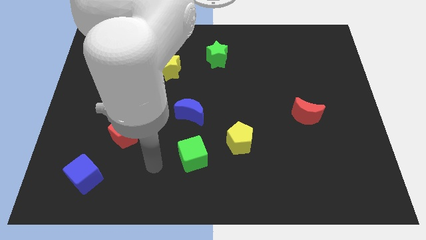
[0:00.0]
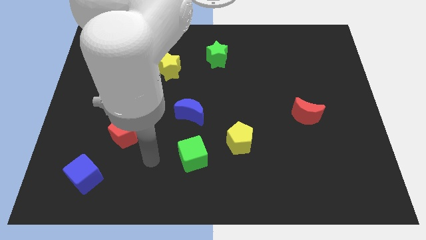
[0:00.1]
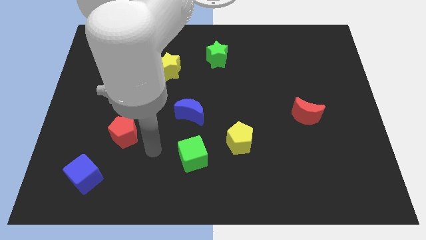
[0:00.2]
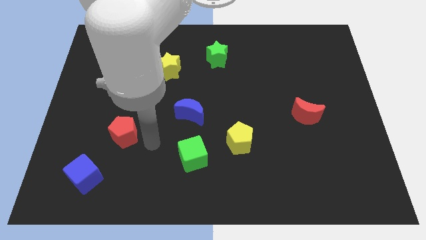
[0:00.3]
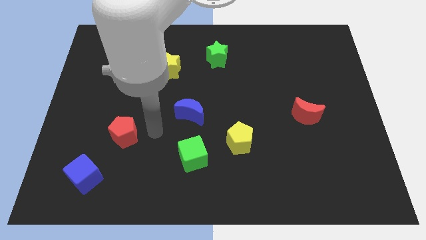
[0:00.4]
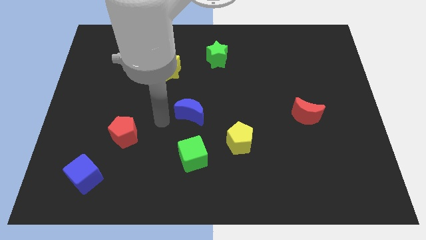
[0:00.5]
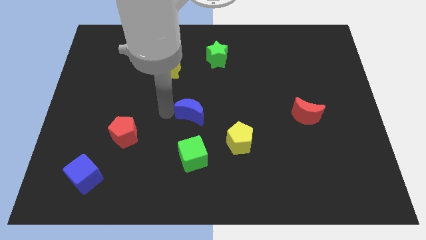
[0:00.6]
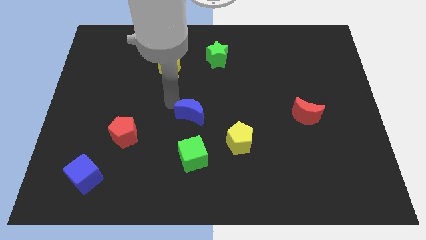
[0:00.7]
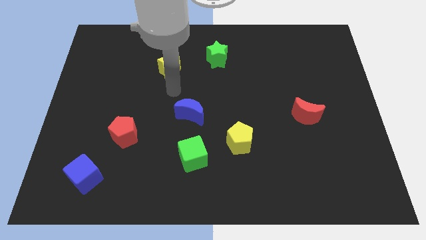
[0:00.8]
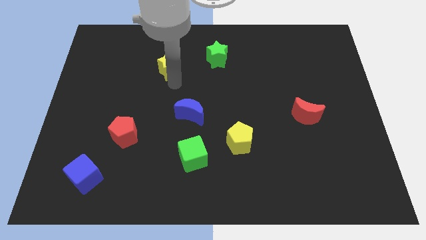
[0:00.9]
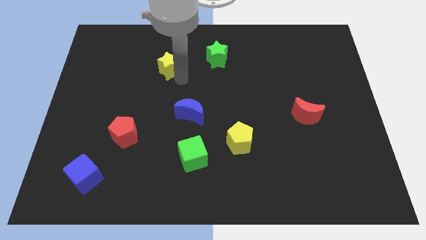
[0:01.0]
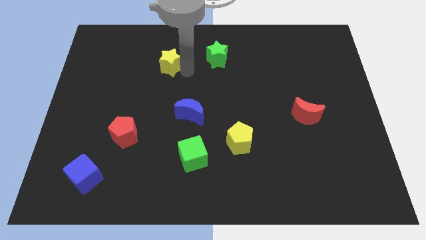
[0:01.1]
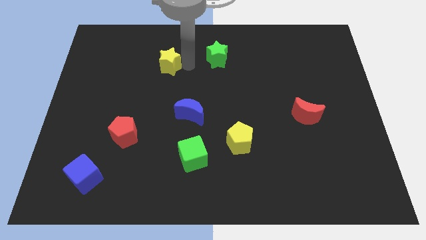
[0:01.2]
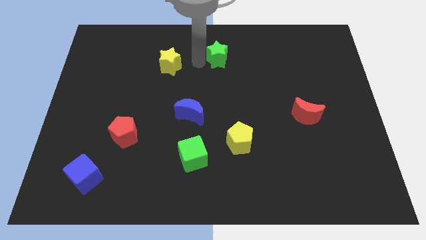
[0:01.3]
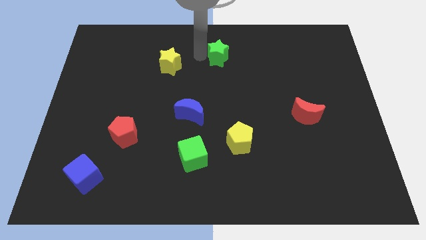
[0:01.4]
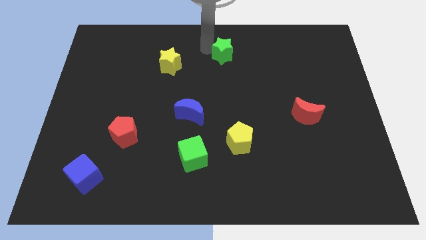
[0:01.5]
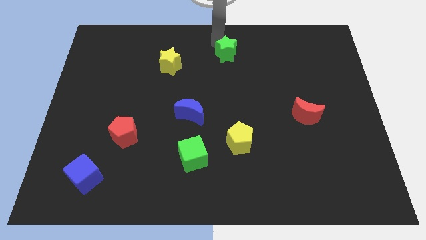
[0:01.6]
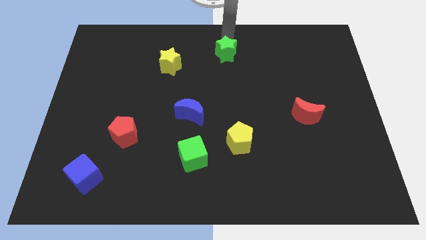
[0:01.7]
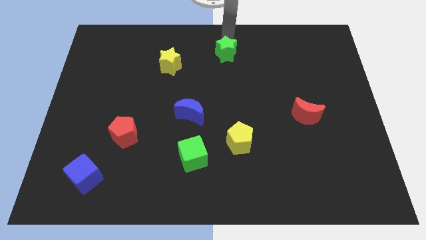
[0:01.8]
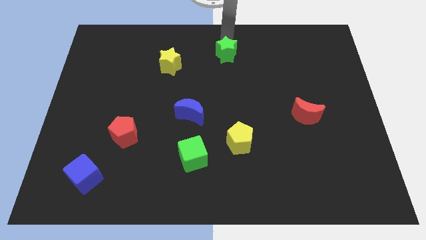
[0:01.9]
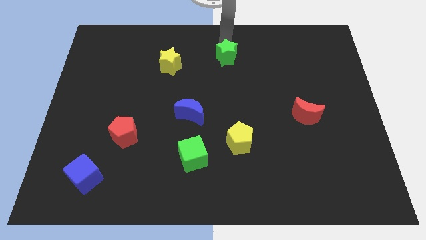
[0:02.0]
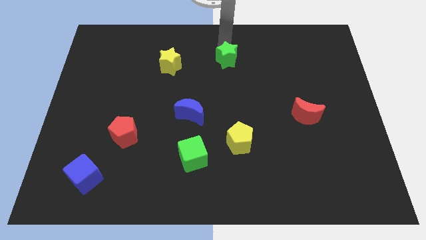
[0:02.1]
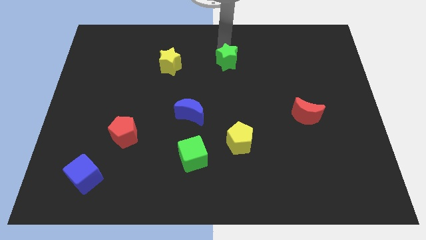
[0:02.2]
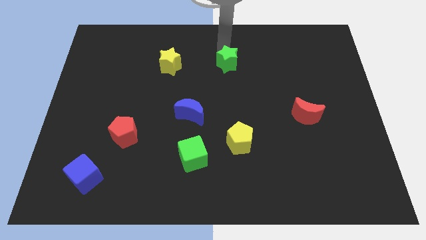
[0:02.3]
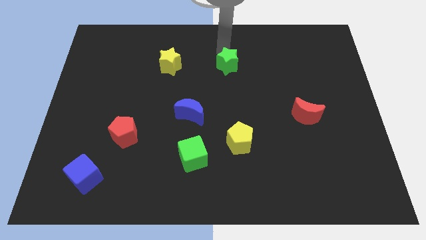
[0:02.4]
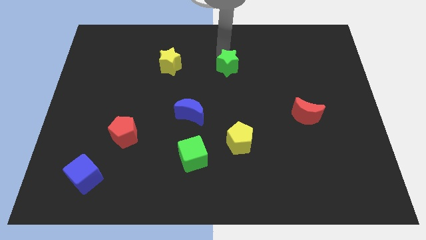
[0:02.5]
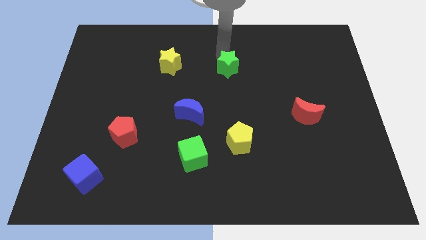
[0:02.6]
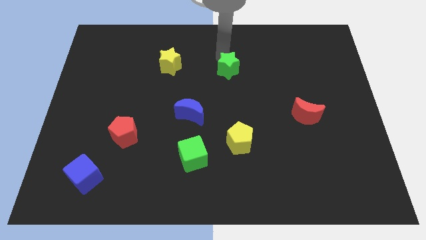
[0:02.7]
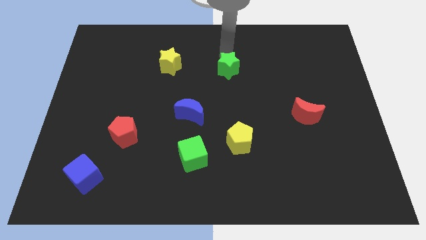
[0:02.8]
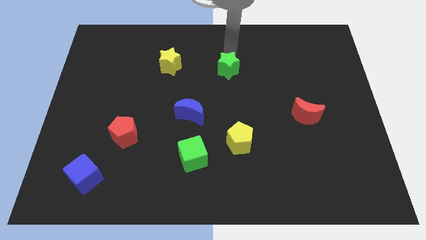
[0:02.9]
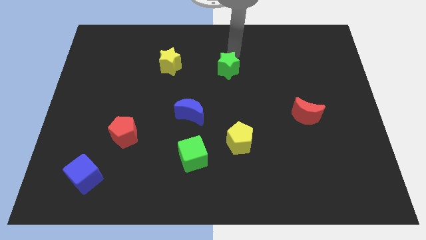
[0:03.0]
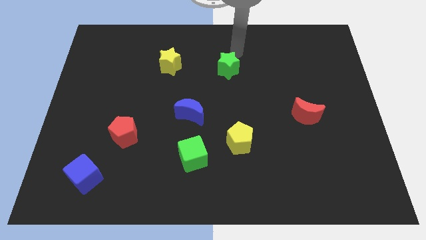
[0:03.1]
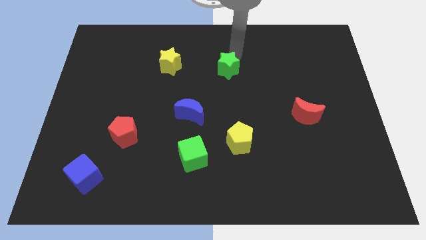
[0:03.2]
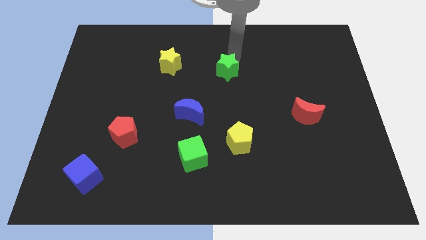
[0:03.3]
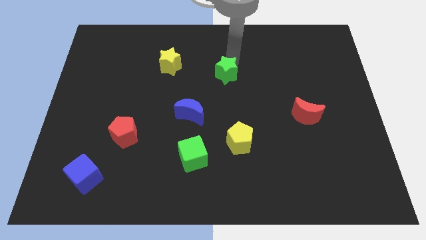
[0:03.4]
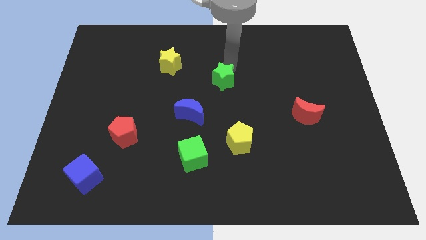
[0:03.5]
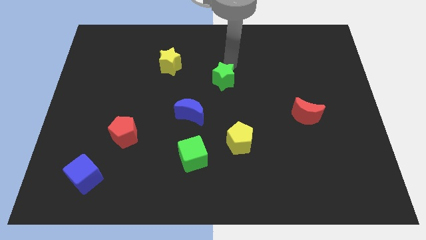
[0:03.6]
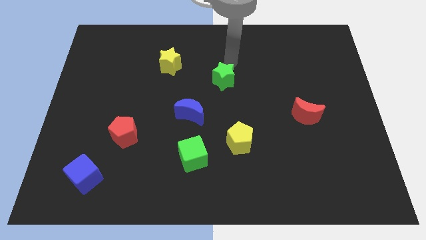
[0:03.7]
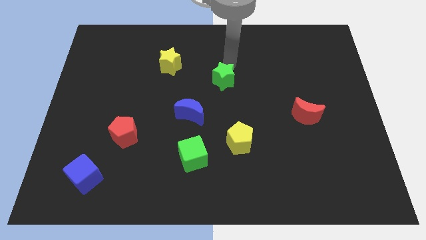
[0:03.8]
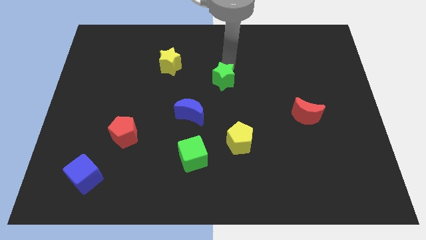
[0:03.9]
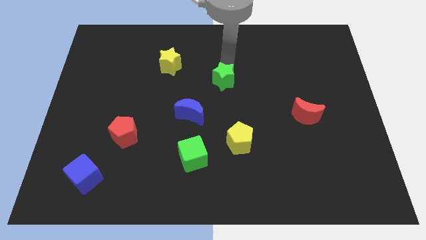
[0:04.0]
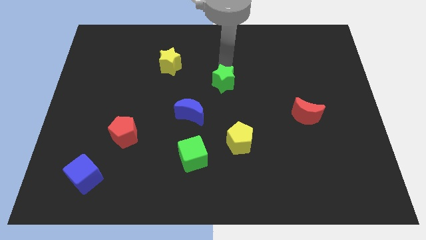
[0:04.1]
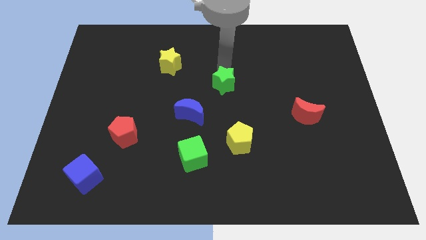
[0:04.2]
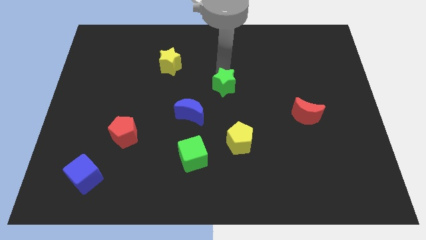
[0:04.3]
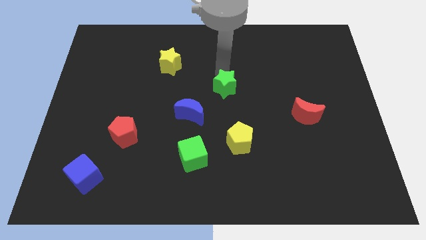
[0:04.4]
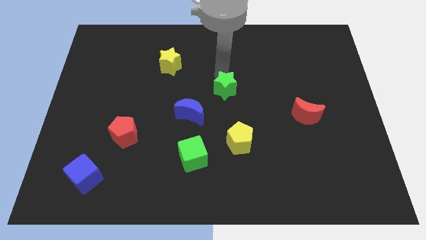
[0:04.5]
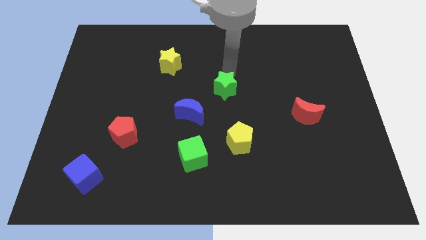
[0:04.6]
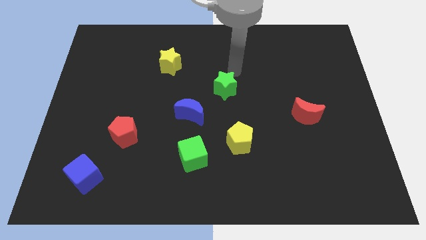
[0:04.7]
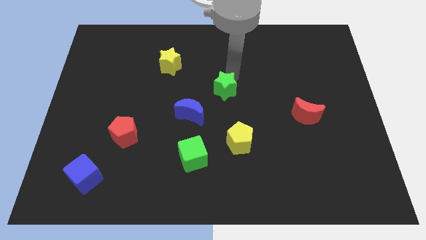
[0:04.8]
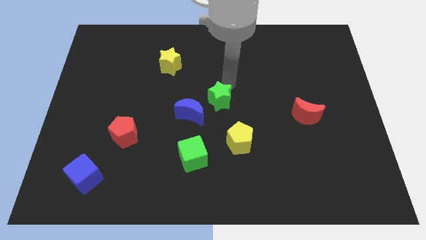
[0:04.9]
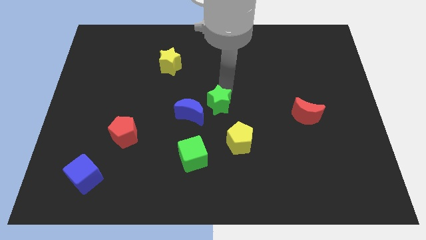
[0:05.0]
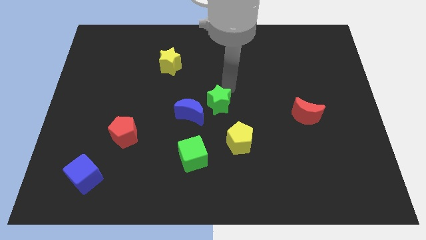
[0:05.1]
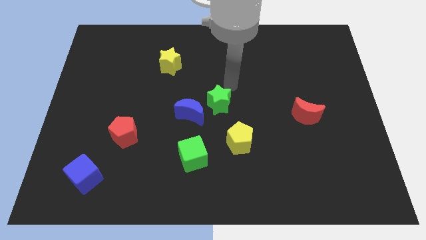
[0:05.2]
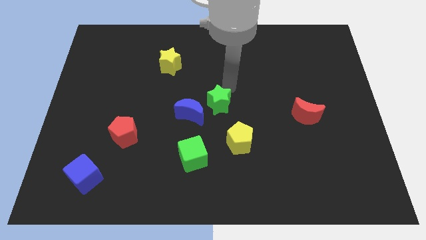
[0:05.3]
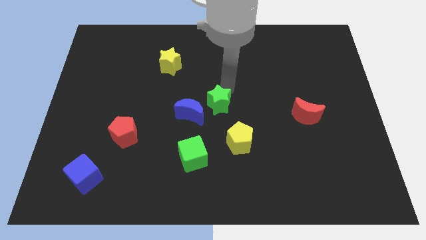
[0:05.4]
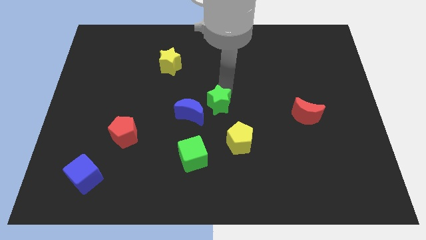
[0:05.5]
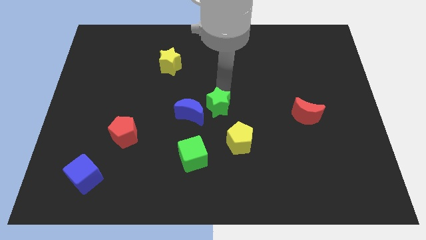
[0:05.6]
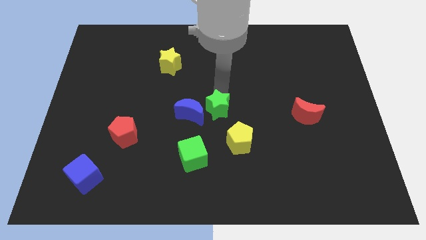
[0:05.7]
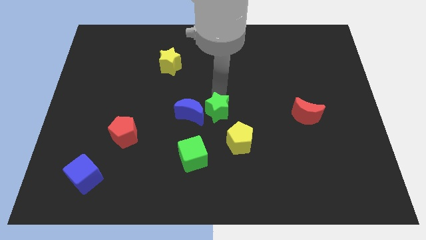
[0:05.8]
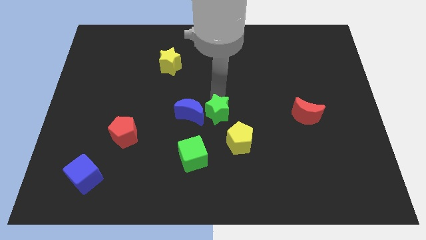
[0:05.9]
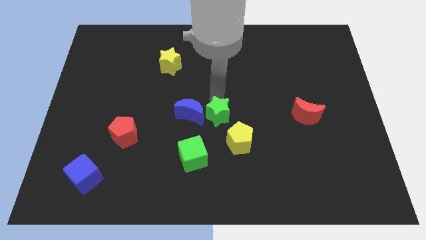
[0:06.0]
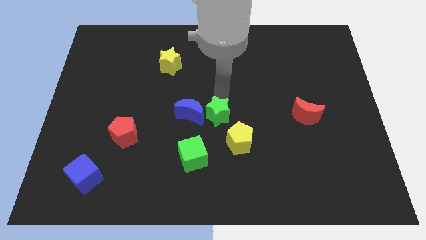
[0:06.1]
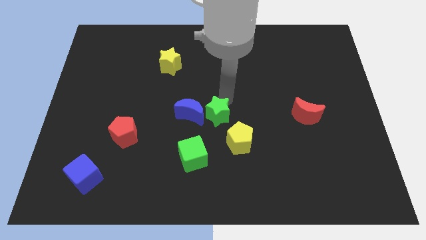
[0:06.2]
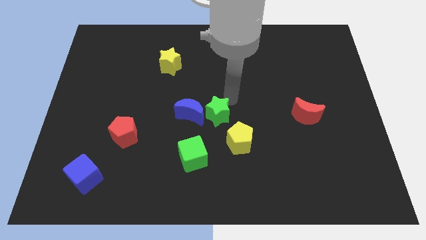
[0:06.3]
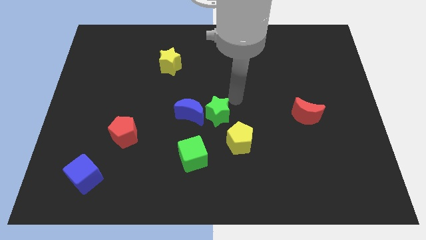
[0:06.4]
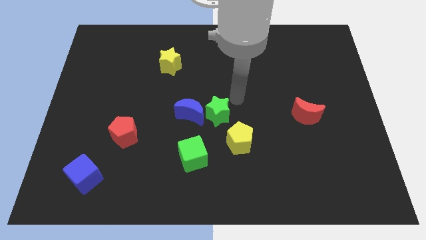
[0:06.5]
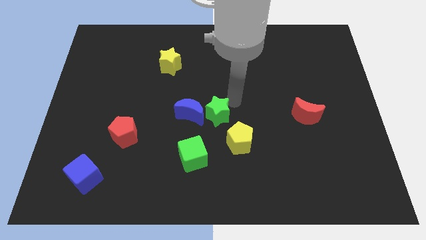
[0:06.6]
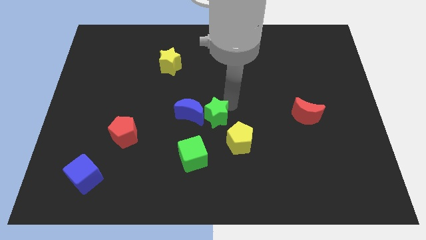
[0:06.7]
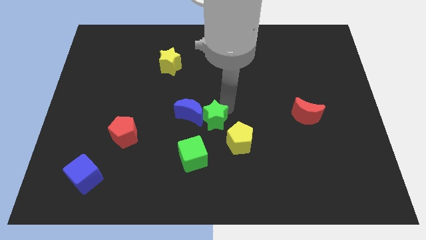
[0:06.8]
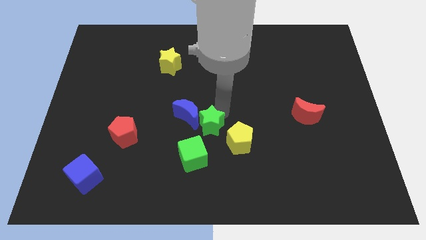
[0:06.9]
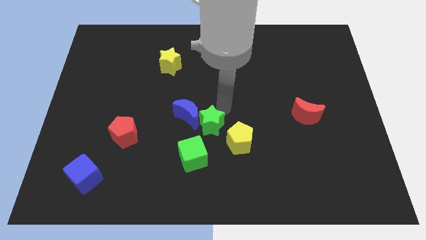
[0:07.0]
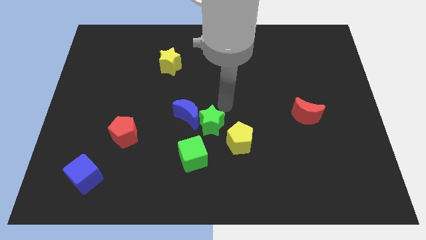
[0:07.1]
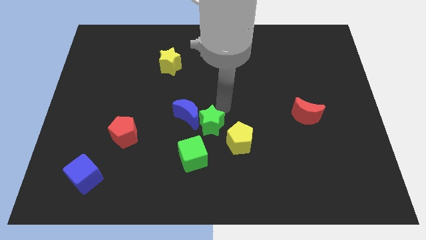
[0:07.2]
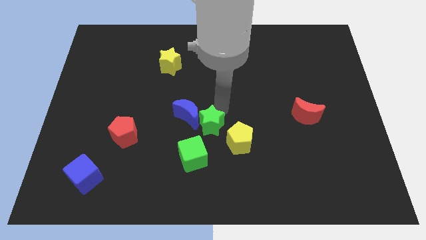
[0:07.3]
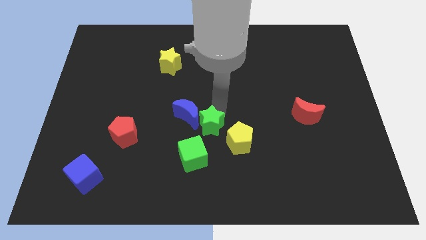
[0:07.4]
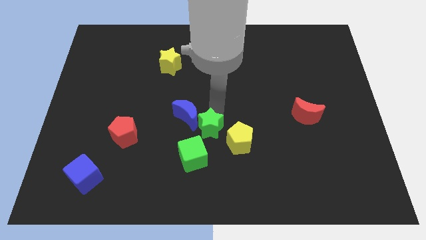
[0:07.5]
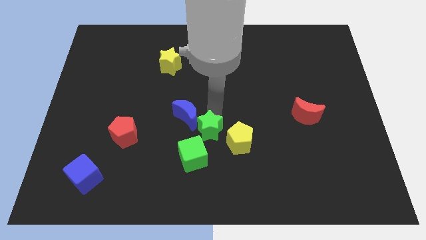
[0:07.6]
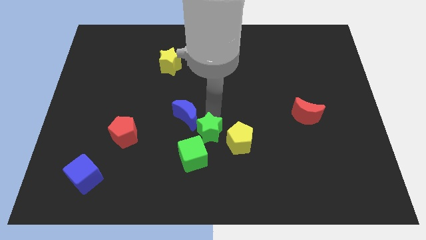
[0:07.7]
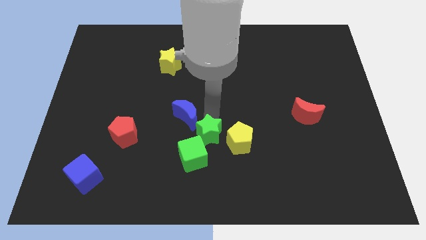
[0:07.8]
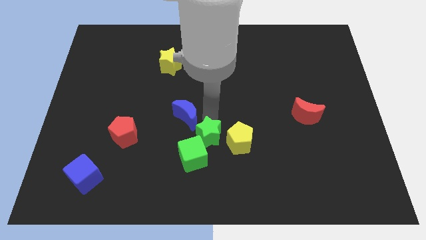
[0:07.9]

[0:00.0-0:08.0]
slide the green star close to the green cube
